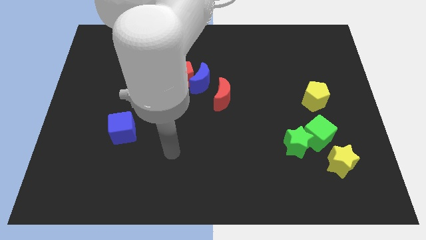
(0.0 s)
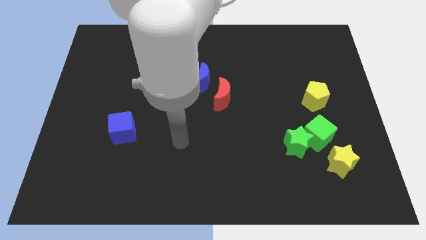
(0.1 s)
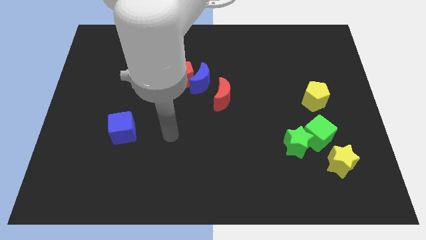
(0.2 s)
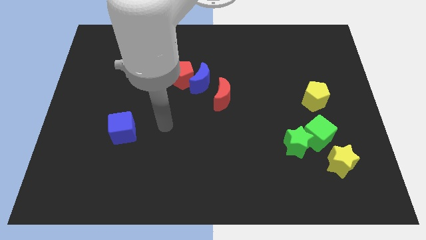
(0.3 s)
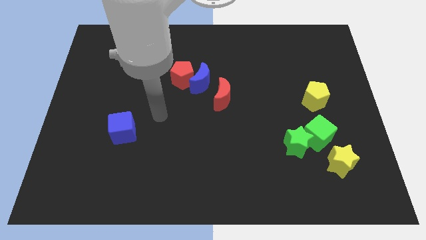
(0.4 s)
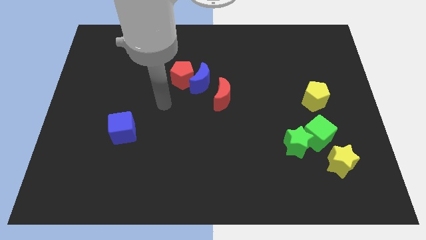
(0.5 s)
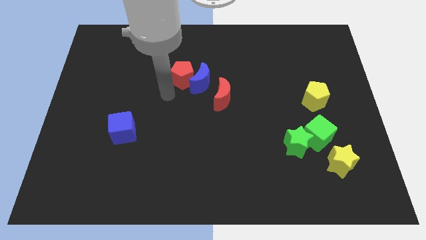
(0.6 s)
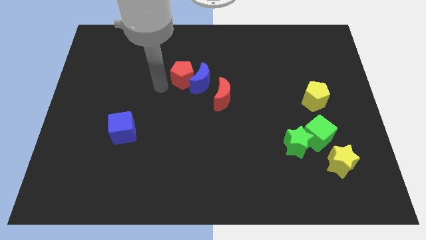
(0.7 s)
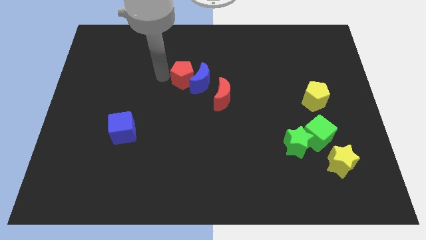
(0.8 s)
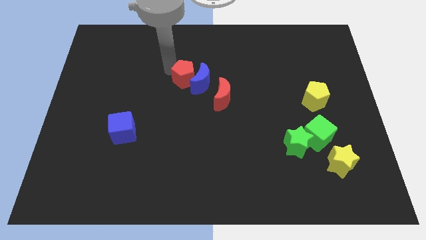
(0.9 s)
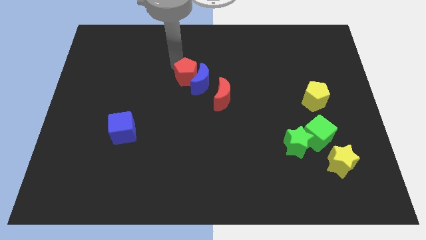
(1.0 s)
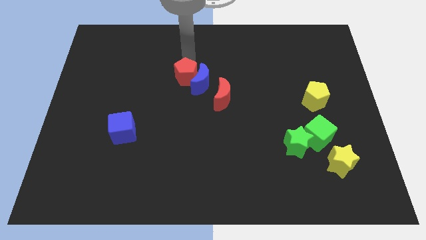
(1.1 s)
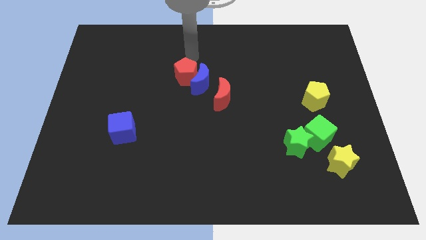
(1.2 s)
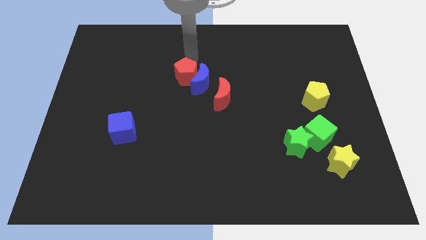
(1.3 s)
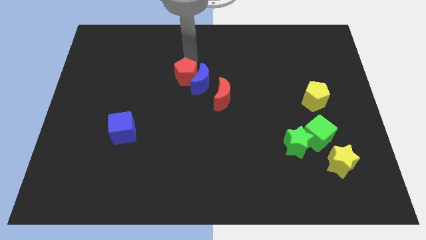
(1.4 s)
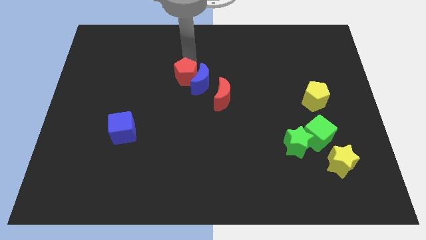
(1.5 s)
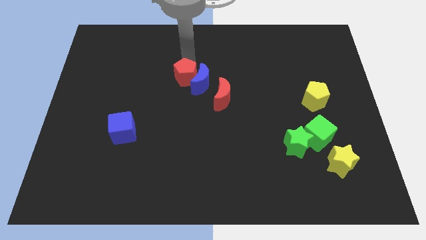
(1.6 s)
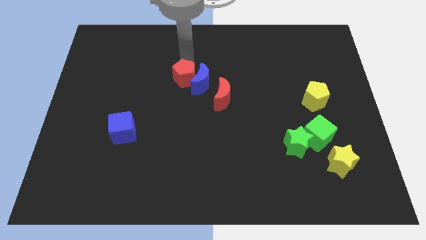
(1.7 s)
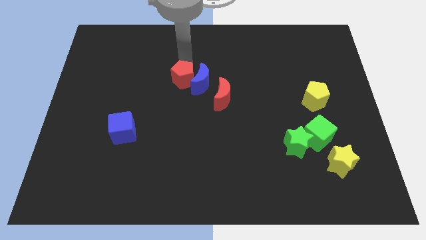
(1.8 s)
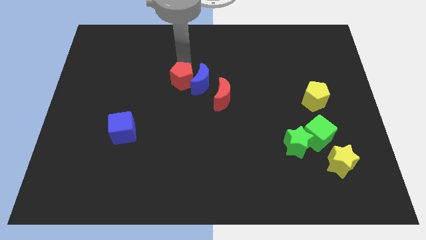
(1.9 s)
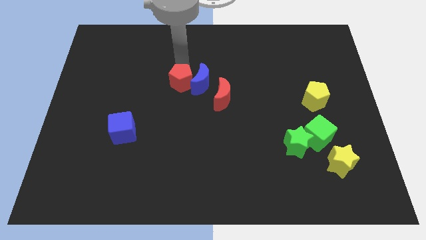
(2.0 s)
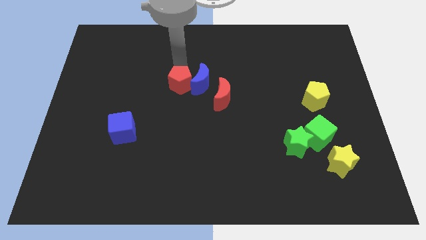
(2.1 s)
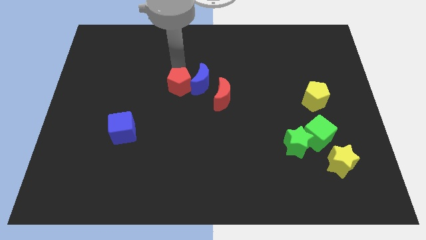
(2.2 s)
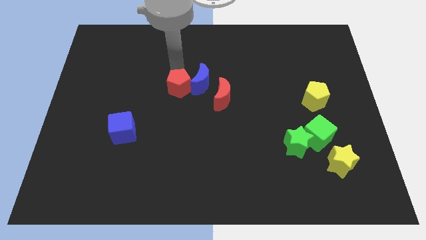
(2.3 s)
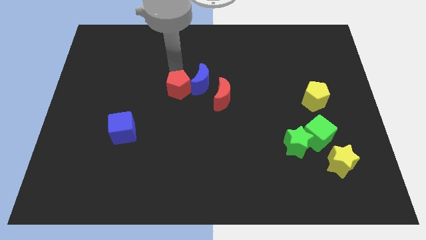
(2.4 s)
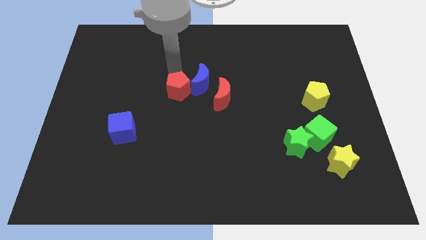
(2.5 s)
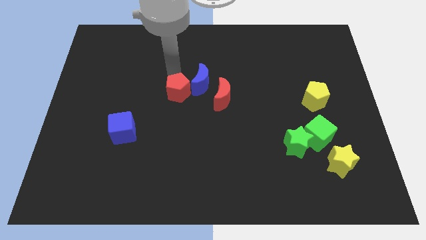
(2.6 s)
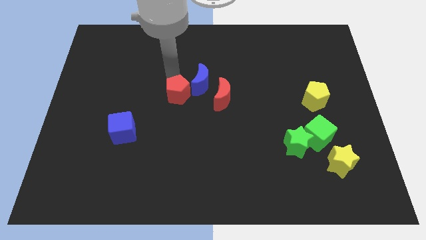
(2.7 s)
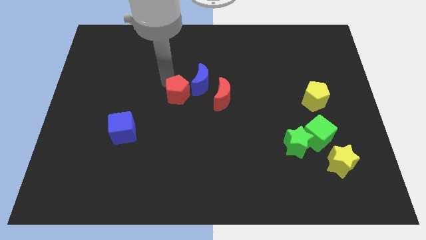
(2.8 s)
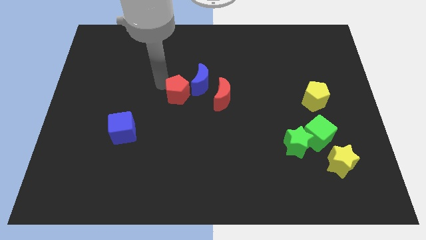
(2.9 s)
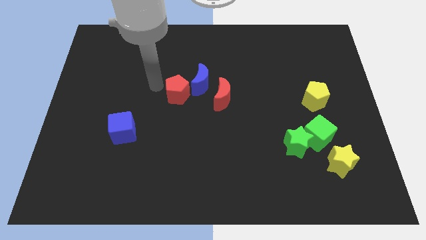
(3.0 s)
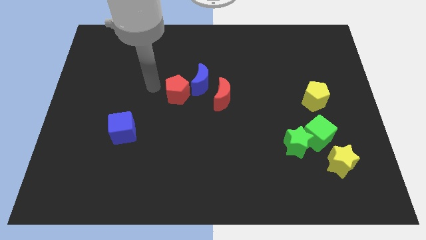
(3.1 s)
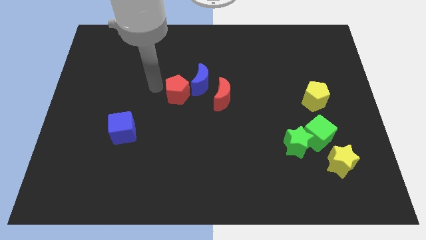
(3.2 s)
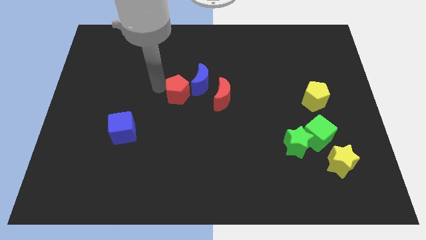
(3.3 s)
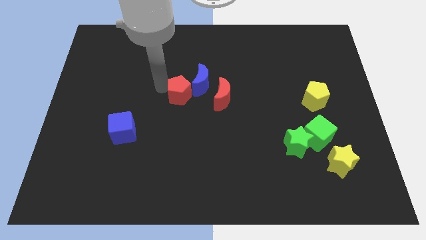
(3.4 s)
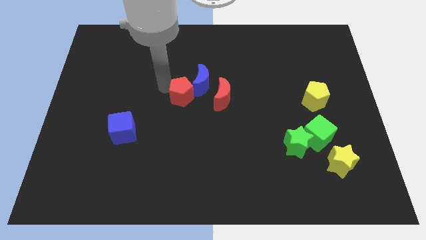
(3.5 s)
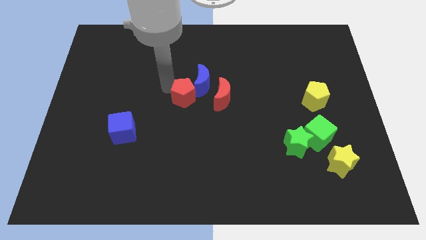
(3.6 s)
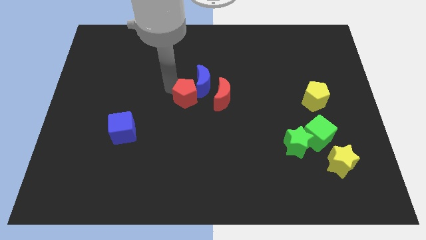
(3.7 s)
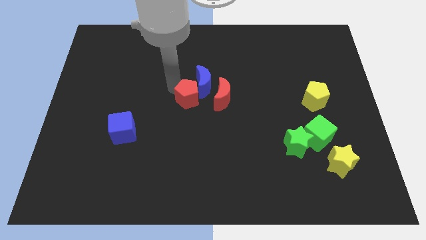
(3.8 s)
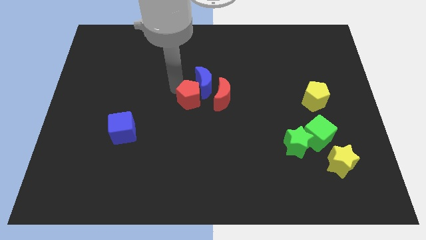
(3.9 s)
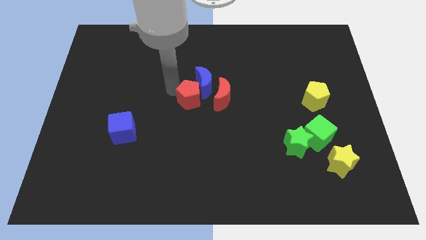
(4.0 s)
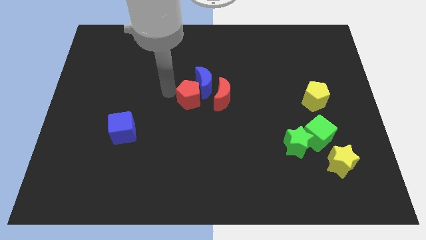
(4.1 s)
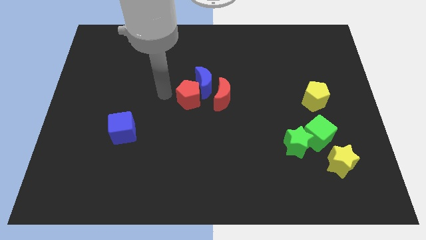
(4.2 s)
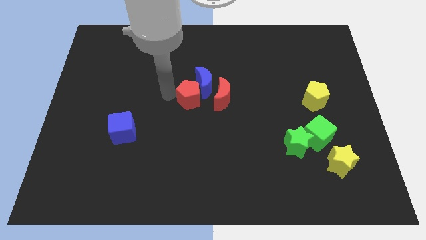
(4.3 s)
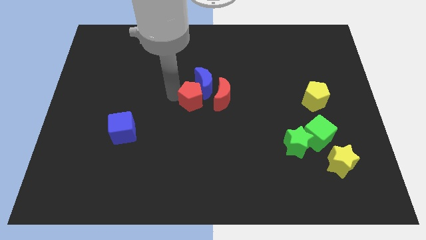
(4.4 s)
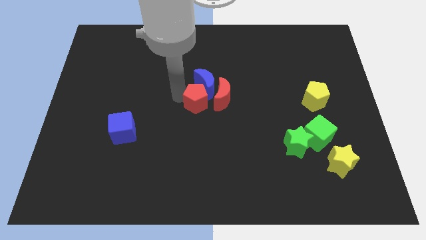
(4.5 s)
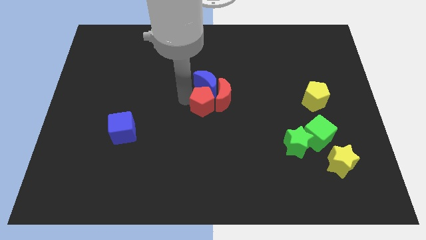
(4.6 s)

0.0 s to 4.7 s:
move the red pentagon next to the red moon

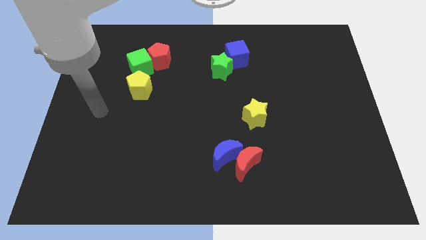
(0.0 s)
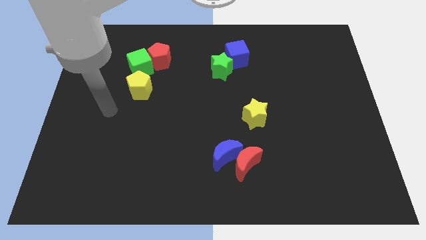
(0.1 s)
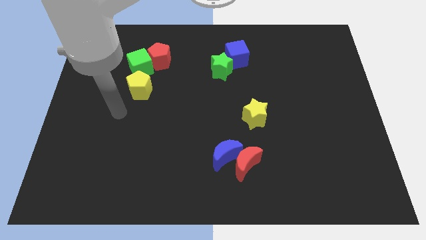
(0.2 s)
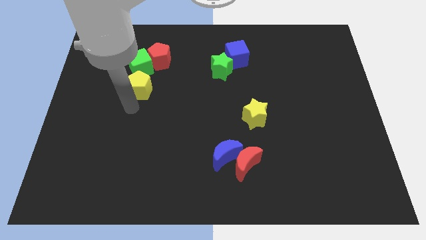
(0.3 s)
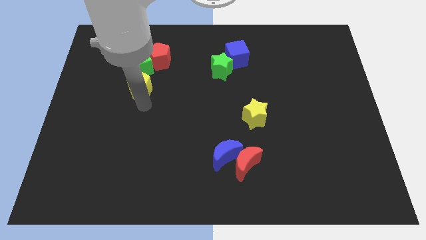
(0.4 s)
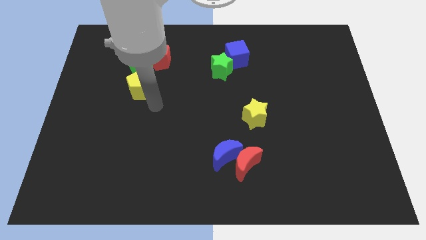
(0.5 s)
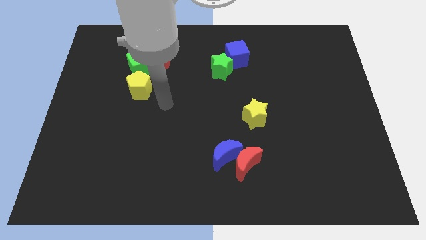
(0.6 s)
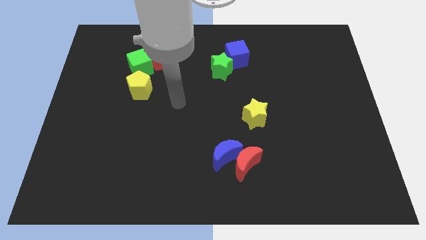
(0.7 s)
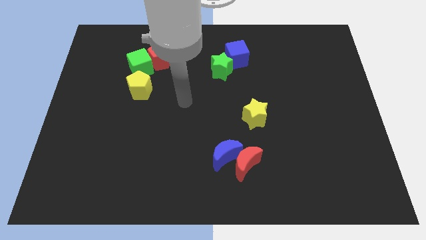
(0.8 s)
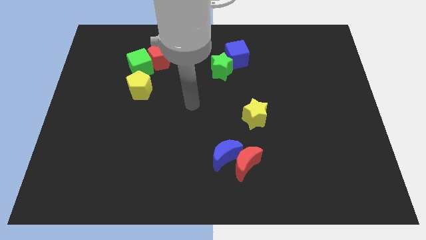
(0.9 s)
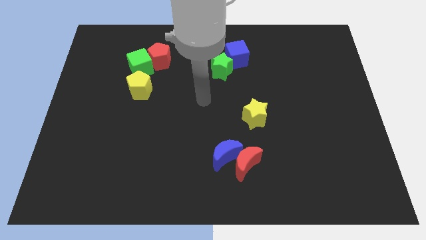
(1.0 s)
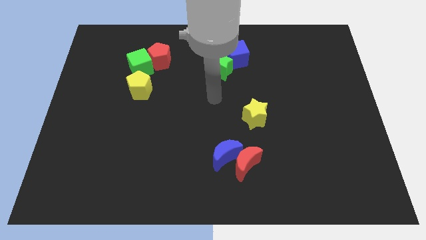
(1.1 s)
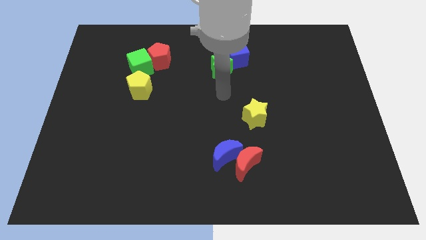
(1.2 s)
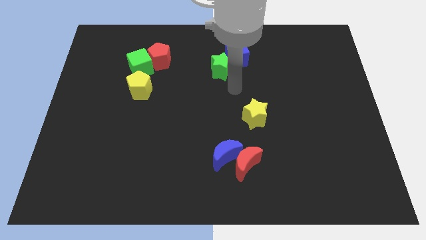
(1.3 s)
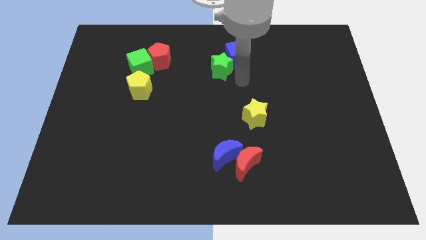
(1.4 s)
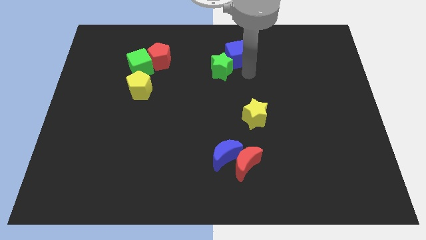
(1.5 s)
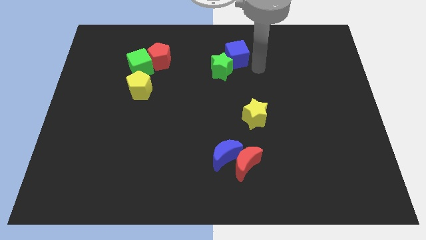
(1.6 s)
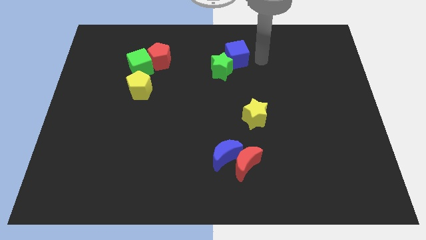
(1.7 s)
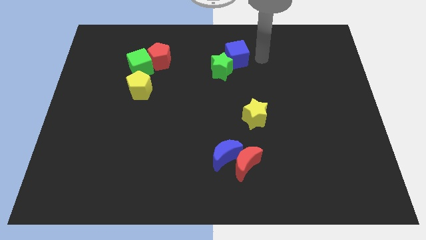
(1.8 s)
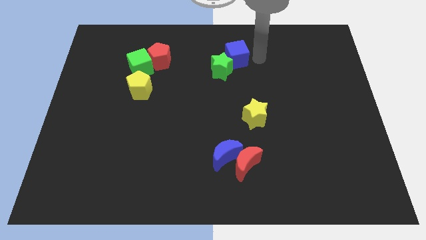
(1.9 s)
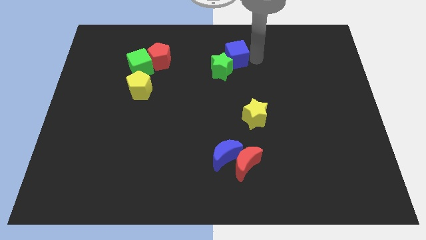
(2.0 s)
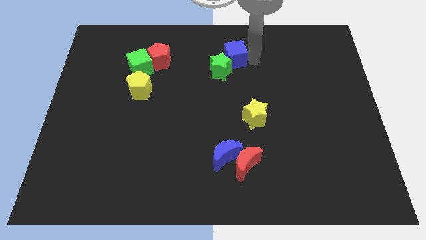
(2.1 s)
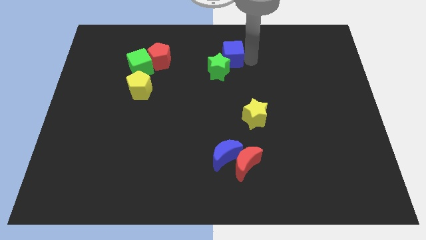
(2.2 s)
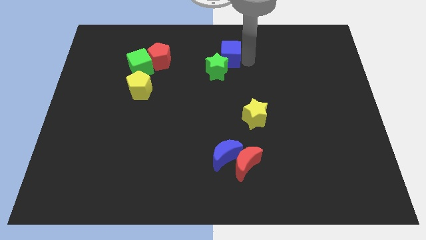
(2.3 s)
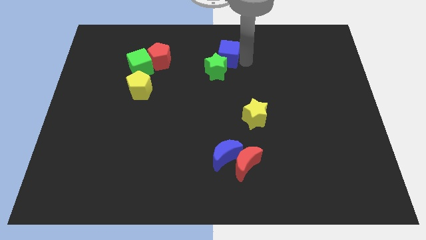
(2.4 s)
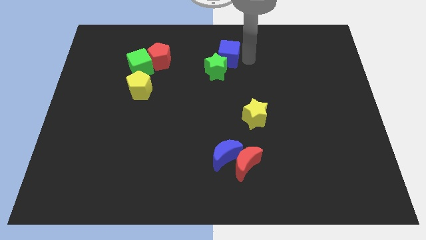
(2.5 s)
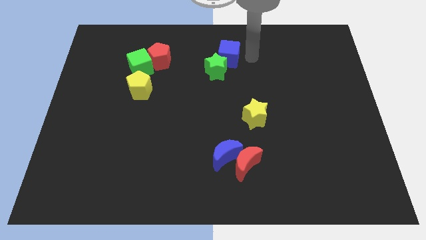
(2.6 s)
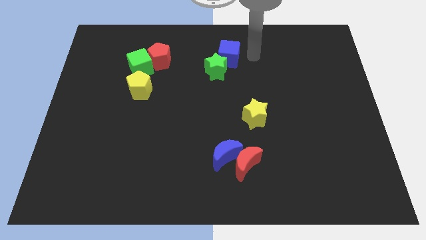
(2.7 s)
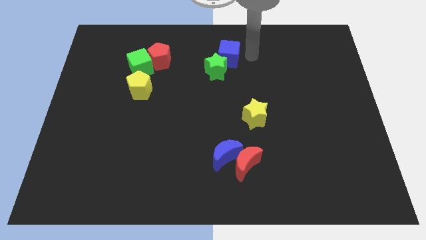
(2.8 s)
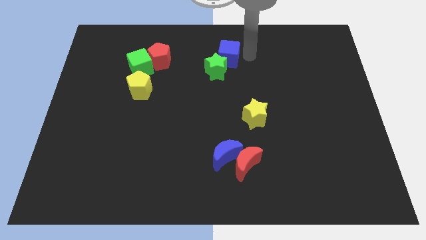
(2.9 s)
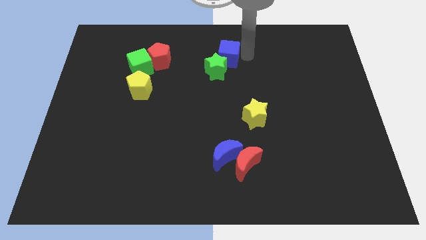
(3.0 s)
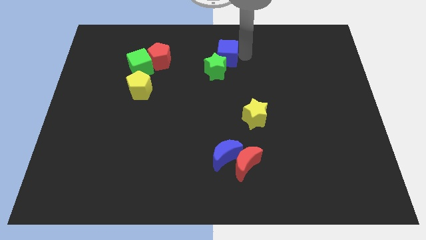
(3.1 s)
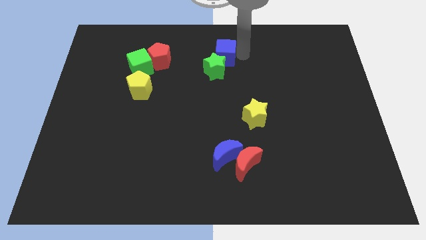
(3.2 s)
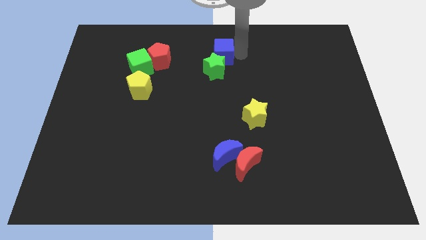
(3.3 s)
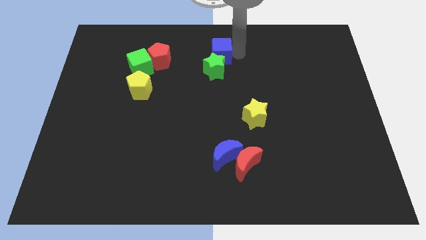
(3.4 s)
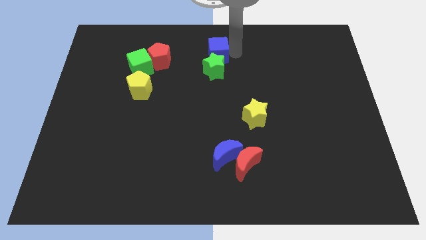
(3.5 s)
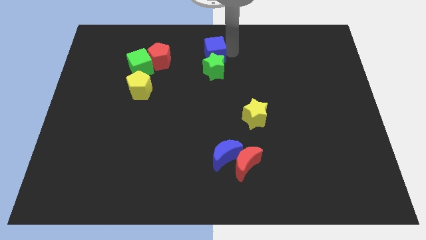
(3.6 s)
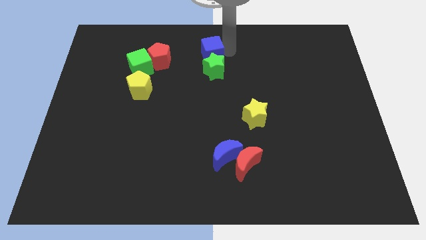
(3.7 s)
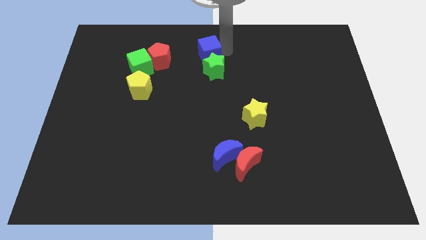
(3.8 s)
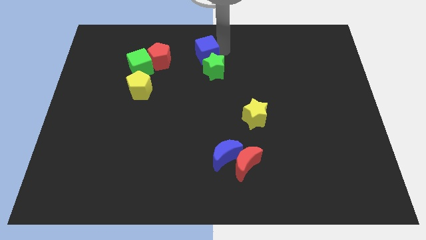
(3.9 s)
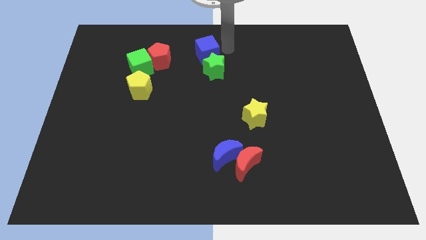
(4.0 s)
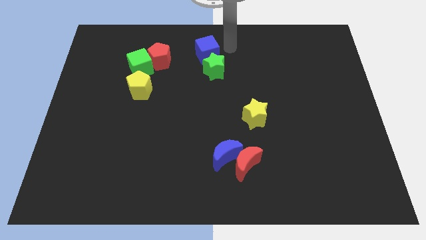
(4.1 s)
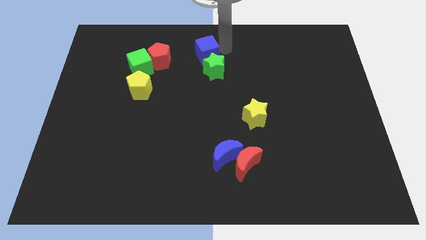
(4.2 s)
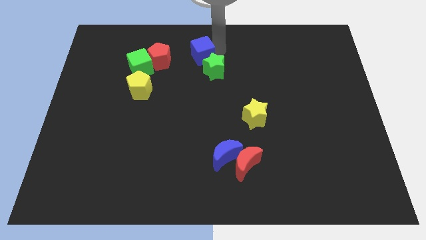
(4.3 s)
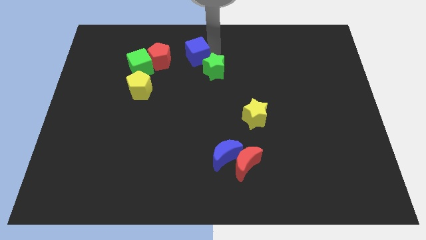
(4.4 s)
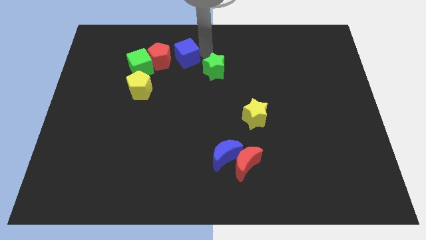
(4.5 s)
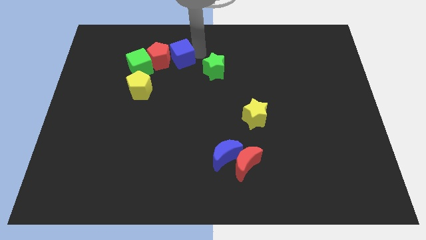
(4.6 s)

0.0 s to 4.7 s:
push the blue cube close to the red pentagon
